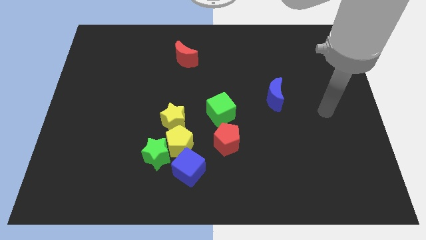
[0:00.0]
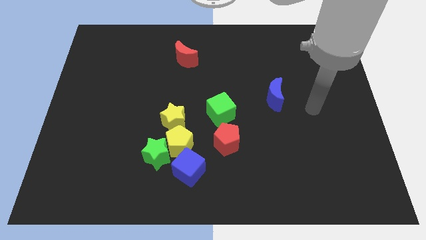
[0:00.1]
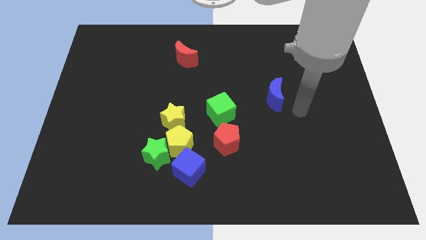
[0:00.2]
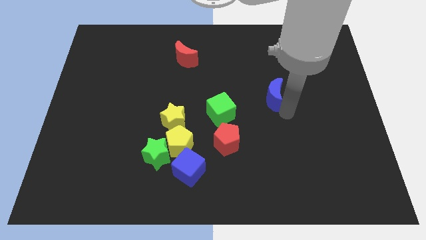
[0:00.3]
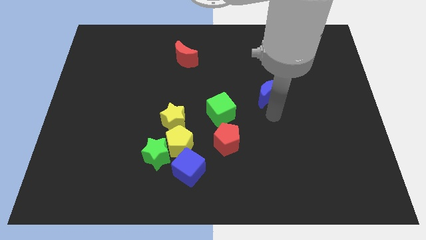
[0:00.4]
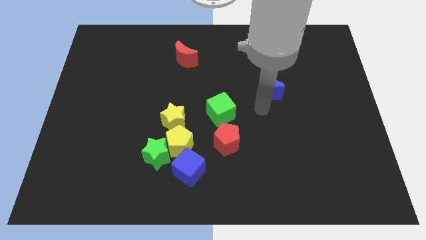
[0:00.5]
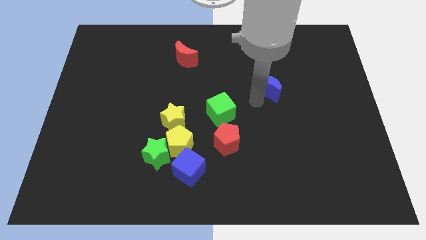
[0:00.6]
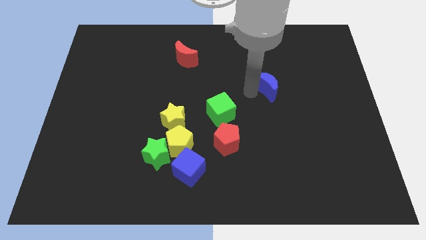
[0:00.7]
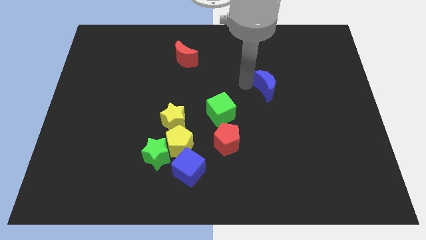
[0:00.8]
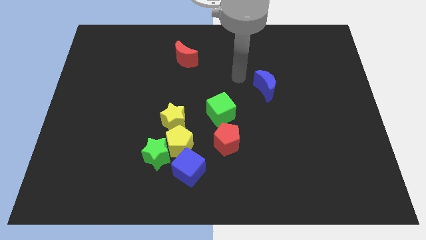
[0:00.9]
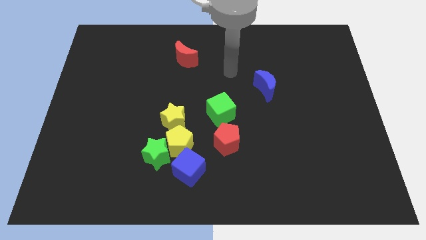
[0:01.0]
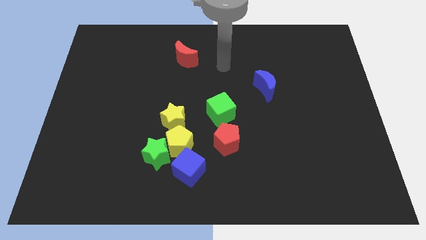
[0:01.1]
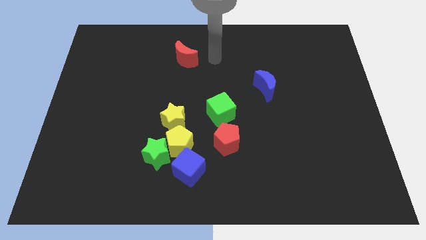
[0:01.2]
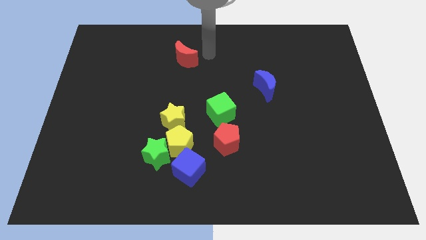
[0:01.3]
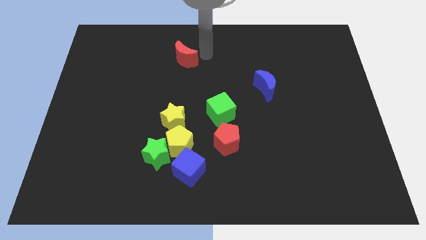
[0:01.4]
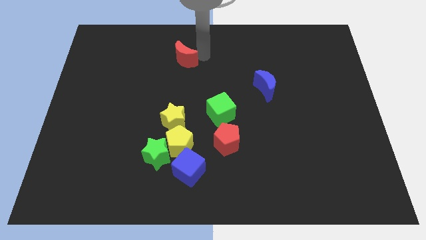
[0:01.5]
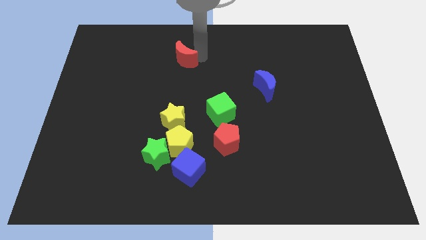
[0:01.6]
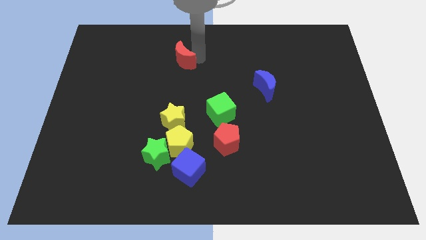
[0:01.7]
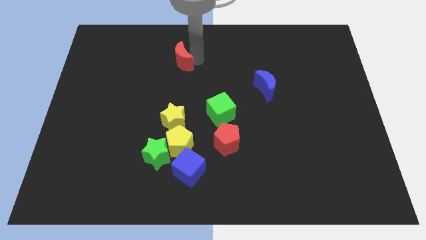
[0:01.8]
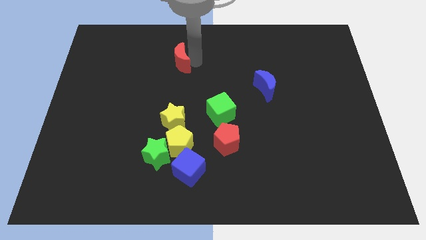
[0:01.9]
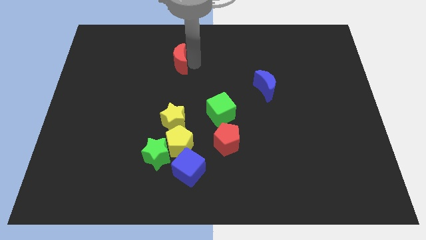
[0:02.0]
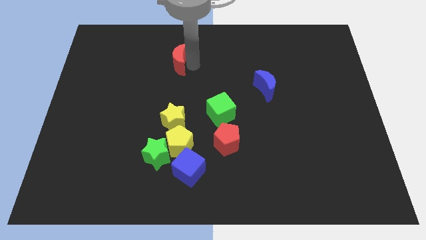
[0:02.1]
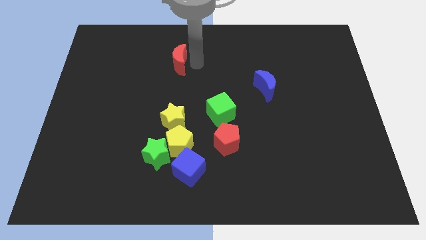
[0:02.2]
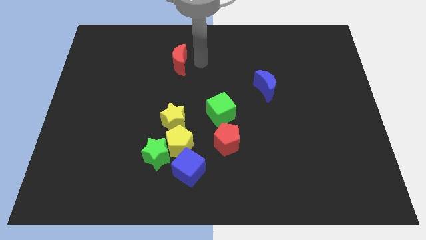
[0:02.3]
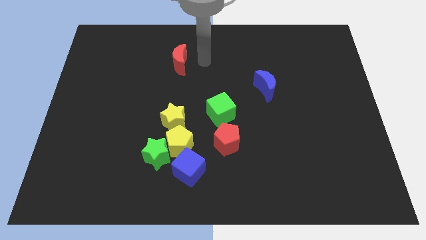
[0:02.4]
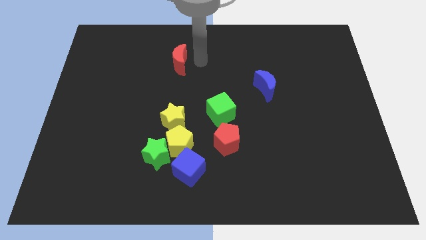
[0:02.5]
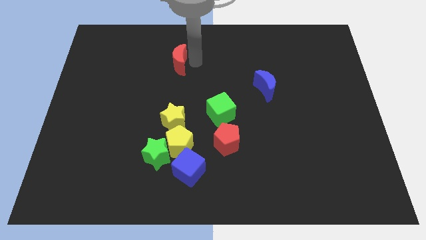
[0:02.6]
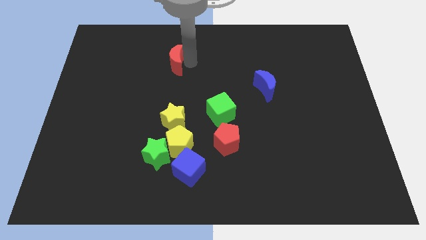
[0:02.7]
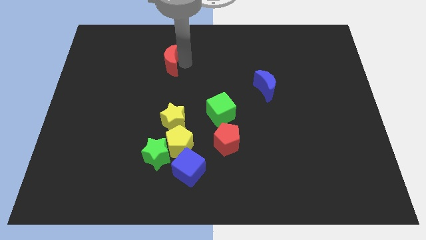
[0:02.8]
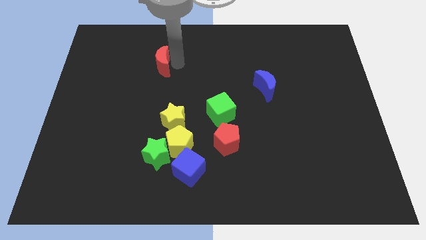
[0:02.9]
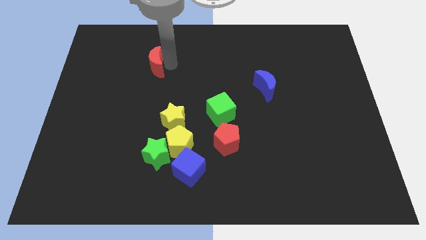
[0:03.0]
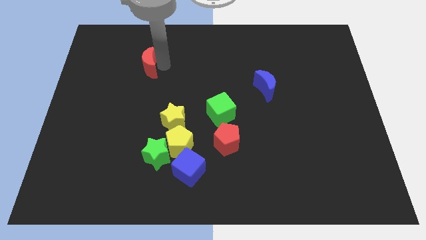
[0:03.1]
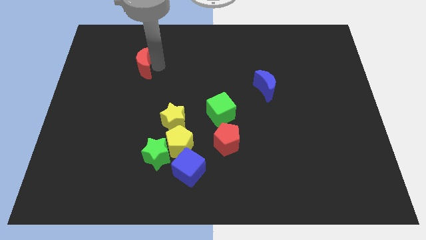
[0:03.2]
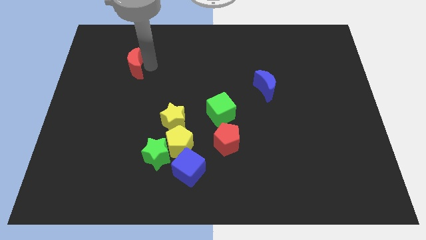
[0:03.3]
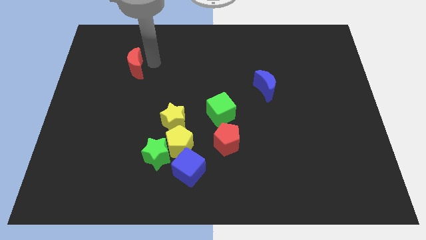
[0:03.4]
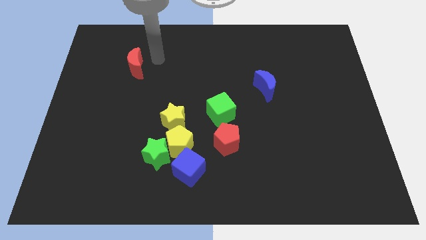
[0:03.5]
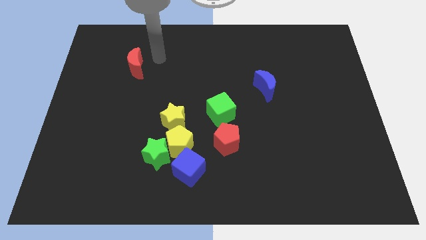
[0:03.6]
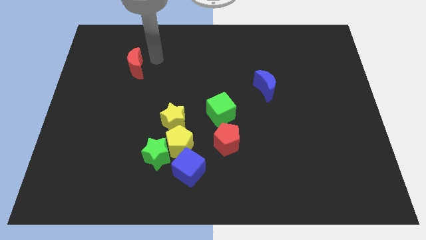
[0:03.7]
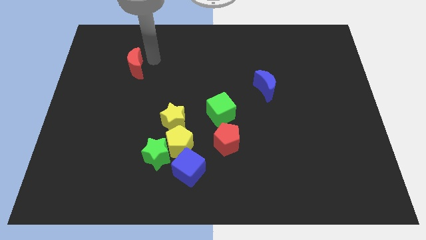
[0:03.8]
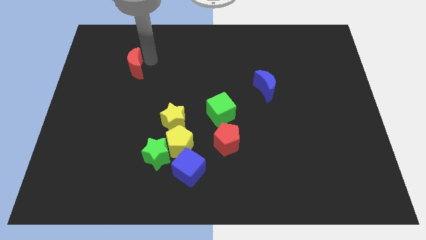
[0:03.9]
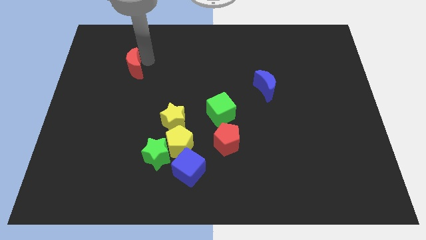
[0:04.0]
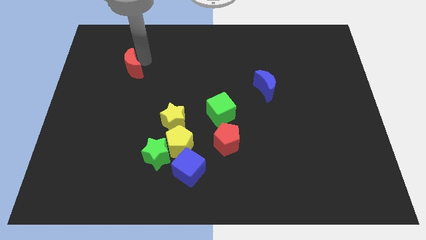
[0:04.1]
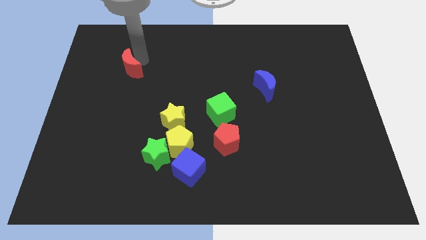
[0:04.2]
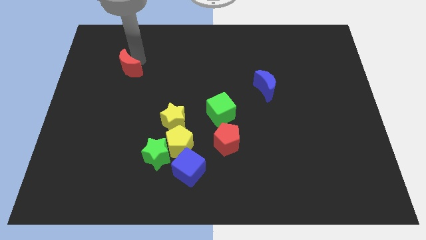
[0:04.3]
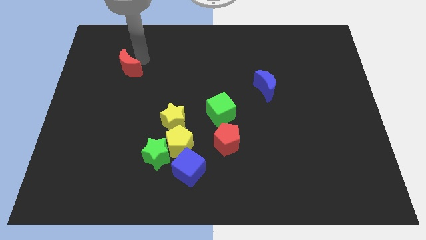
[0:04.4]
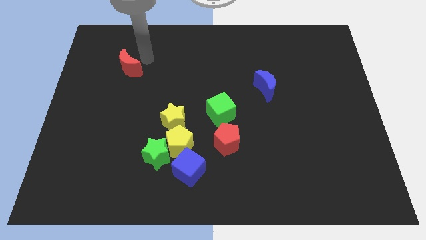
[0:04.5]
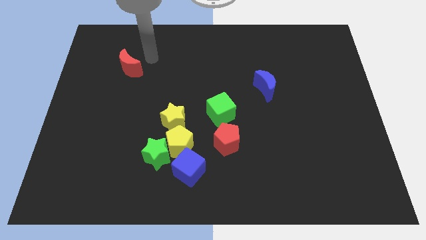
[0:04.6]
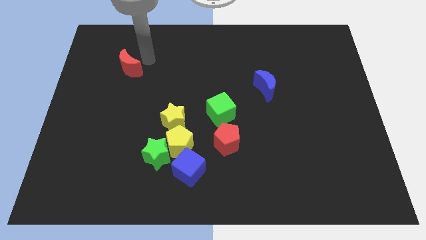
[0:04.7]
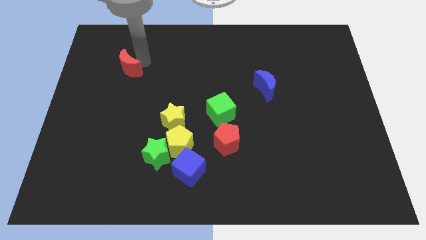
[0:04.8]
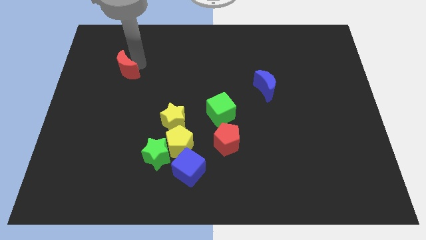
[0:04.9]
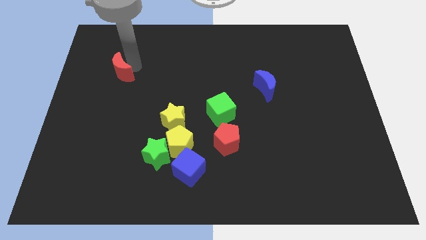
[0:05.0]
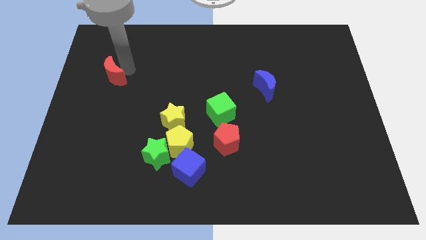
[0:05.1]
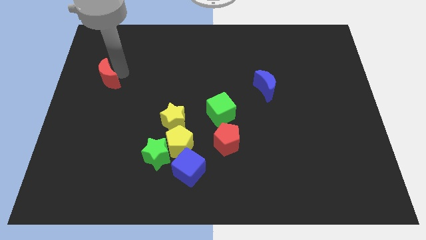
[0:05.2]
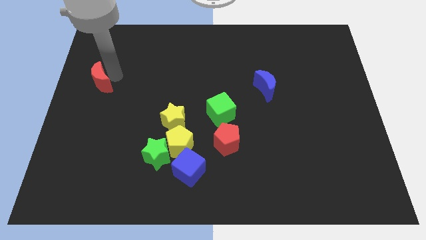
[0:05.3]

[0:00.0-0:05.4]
move the red moon to the center left

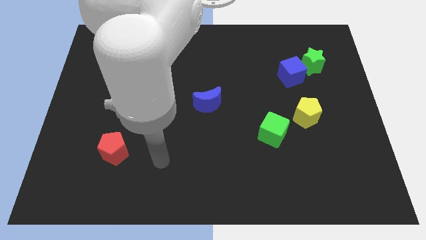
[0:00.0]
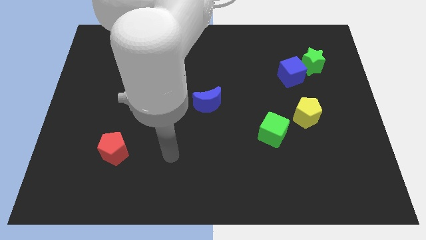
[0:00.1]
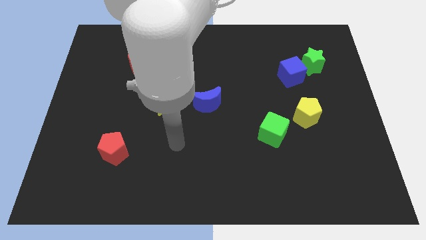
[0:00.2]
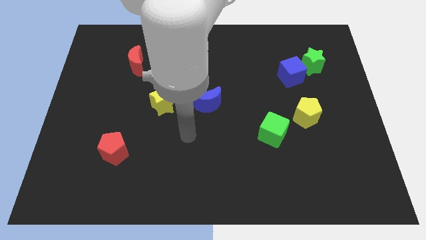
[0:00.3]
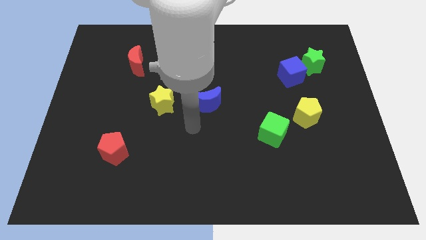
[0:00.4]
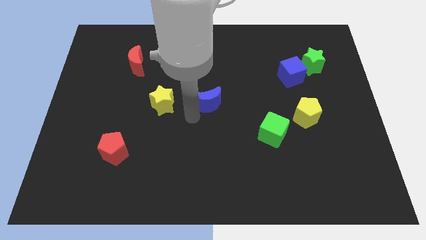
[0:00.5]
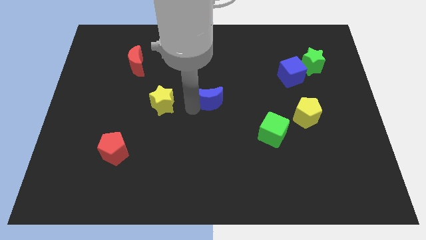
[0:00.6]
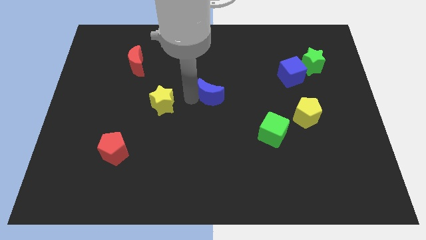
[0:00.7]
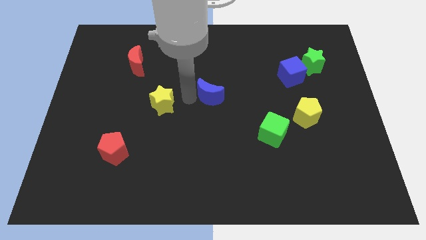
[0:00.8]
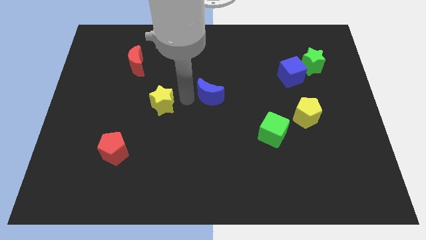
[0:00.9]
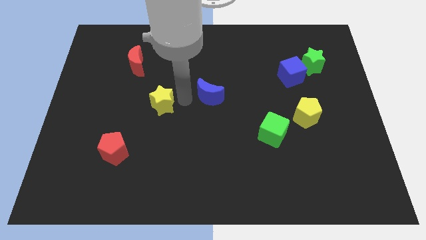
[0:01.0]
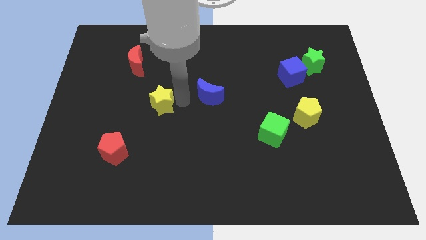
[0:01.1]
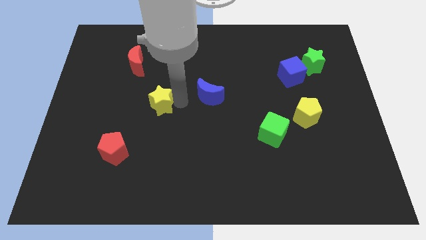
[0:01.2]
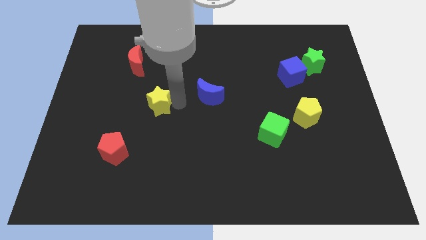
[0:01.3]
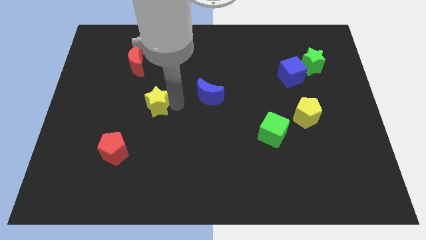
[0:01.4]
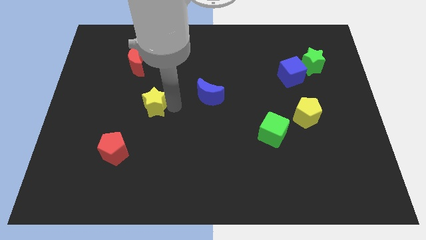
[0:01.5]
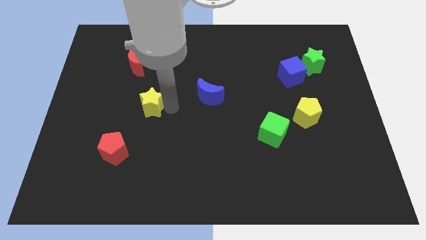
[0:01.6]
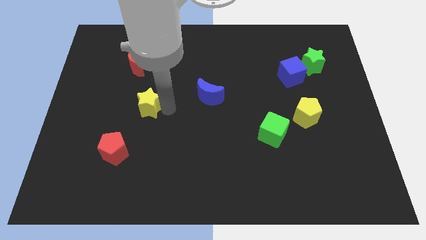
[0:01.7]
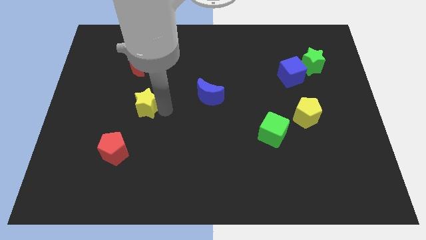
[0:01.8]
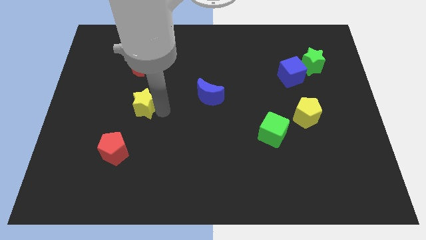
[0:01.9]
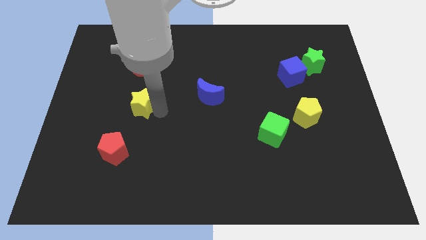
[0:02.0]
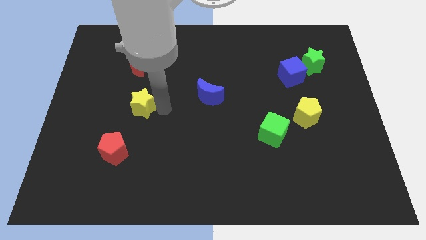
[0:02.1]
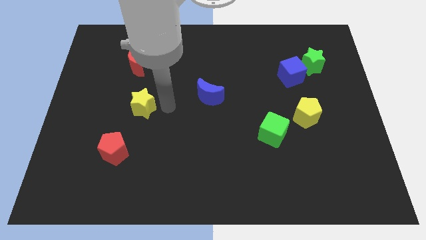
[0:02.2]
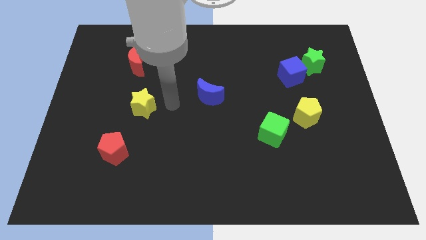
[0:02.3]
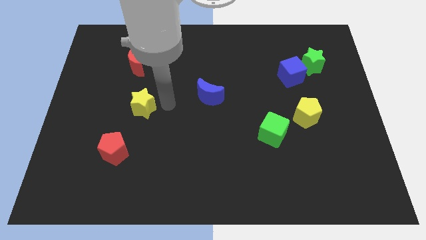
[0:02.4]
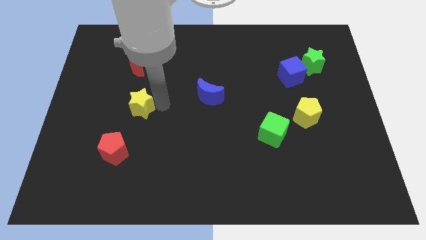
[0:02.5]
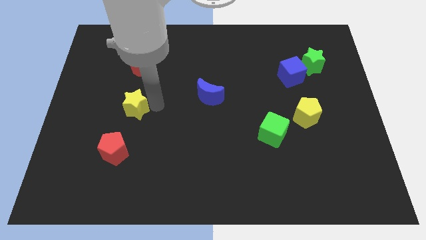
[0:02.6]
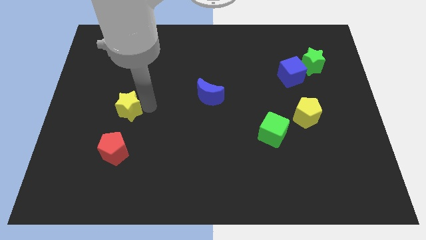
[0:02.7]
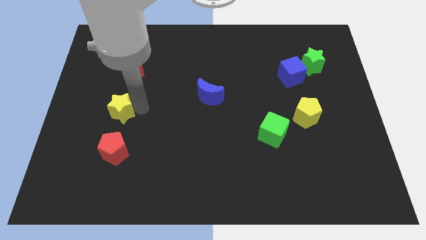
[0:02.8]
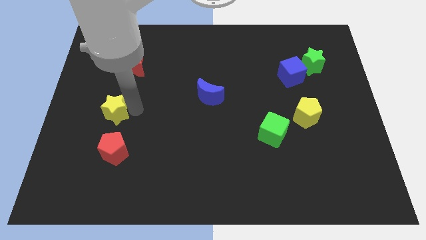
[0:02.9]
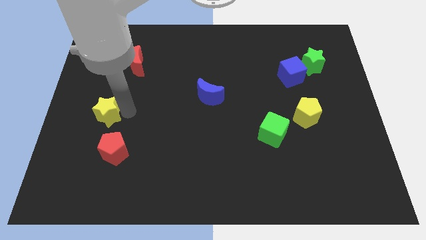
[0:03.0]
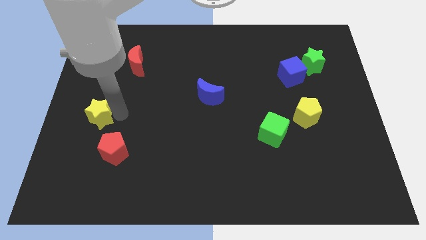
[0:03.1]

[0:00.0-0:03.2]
move the yellow star to the left side of the board
